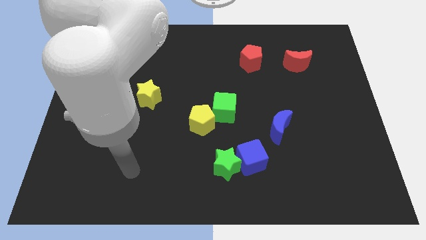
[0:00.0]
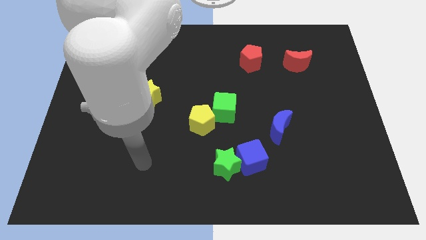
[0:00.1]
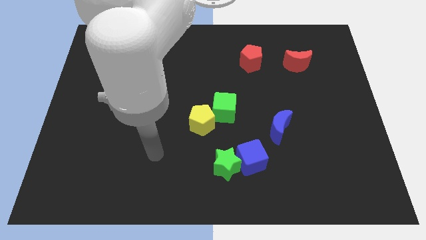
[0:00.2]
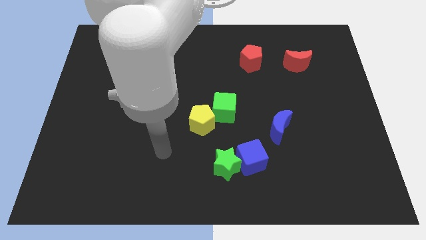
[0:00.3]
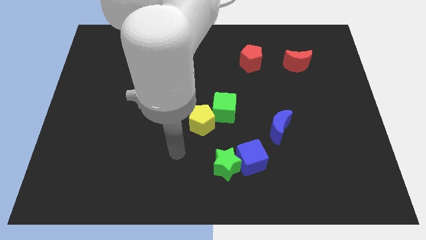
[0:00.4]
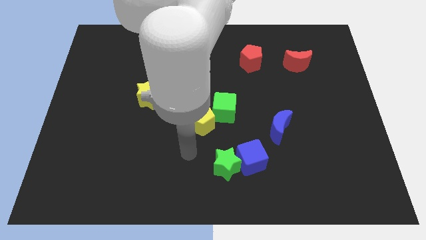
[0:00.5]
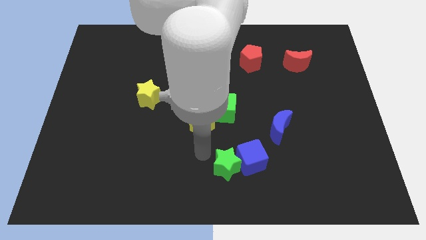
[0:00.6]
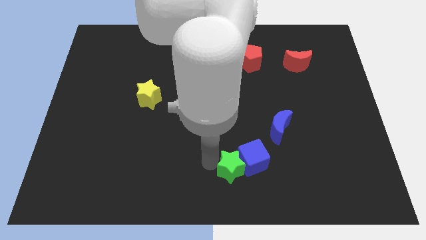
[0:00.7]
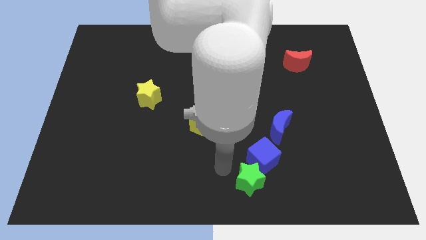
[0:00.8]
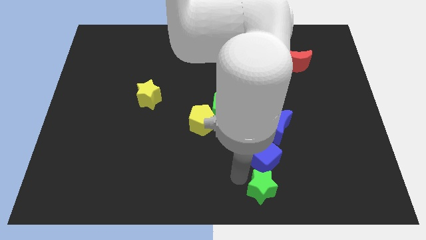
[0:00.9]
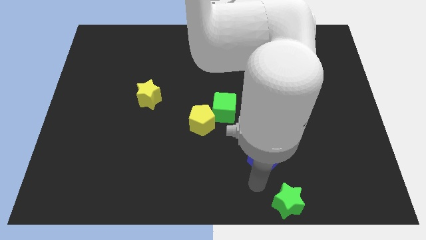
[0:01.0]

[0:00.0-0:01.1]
separate the blue cube from the green star

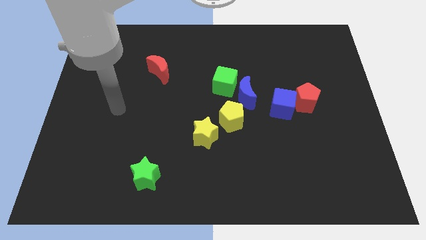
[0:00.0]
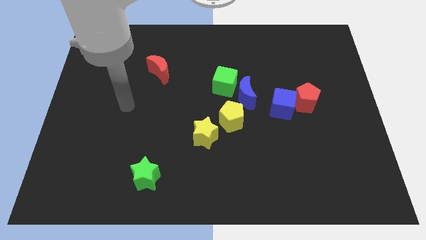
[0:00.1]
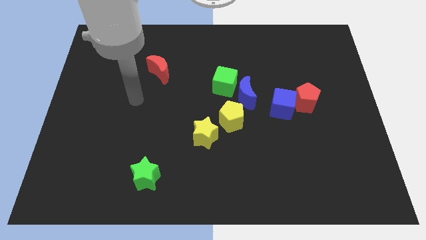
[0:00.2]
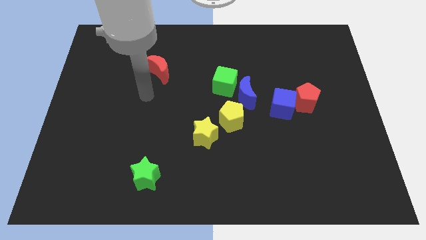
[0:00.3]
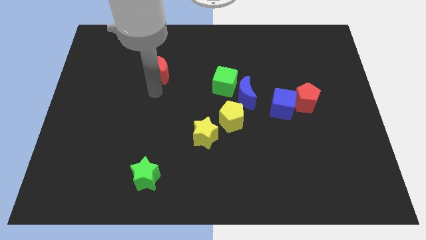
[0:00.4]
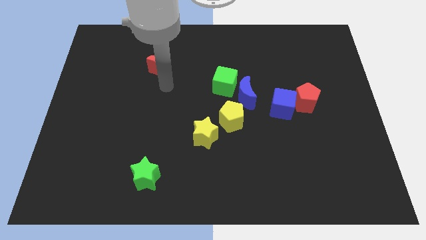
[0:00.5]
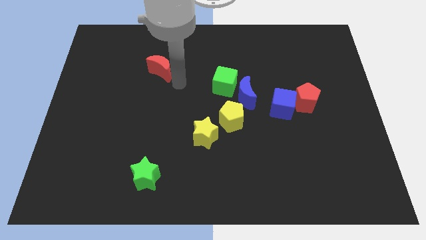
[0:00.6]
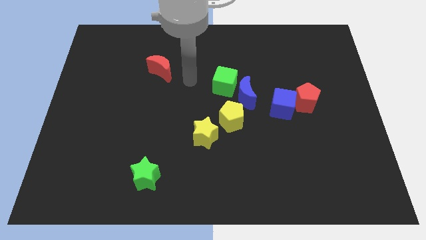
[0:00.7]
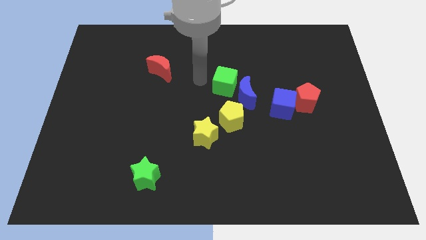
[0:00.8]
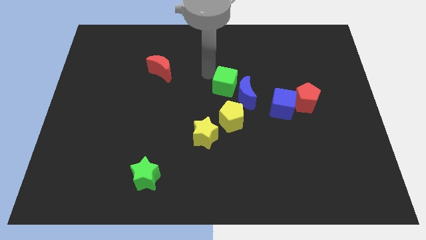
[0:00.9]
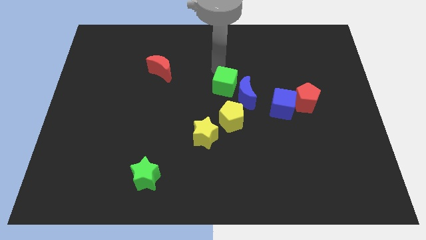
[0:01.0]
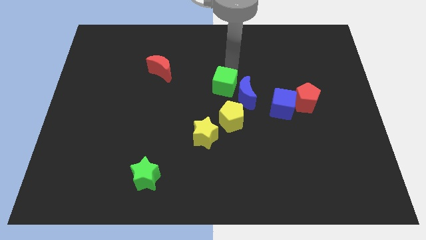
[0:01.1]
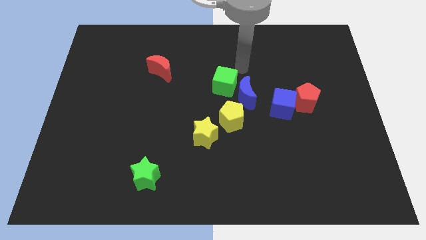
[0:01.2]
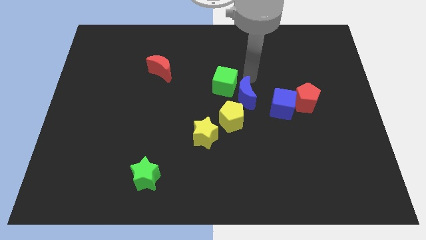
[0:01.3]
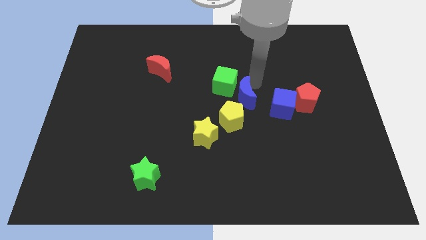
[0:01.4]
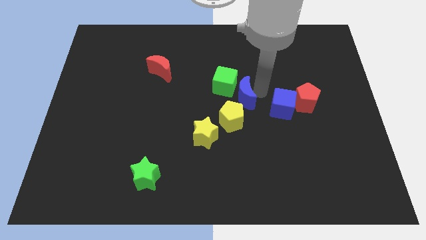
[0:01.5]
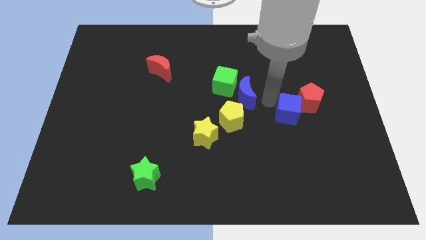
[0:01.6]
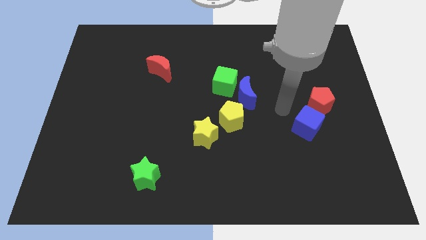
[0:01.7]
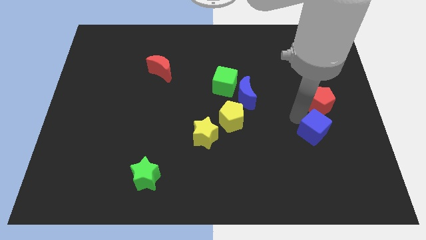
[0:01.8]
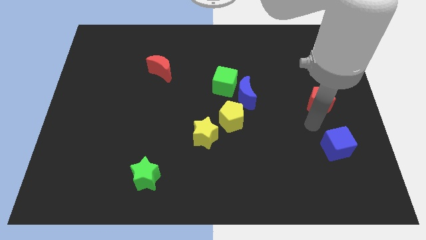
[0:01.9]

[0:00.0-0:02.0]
separate the red pentagon from the blue cube

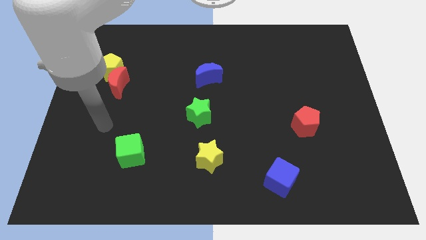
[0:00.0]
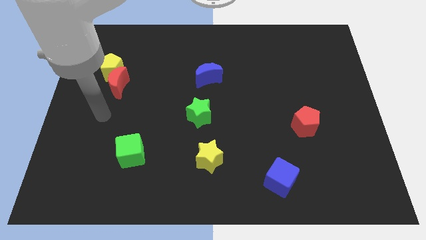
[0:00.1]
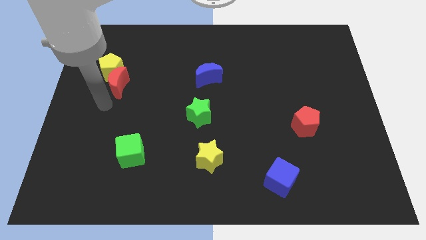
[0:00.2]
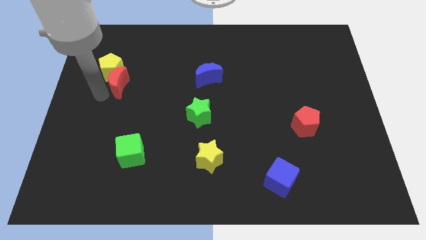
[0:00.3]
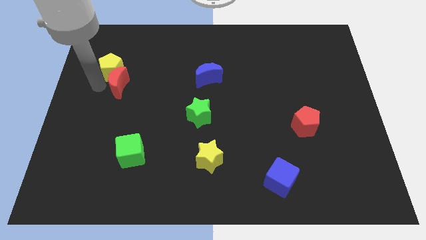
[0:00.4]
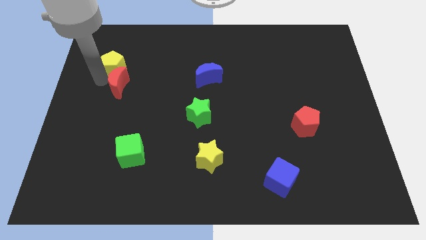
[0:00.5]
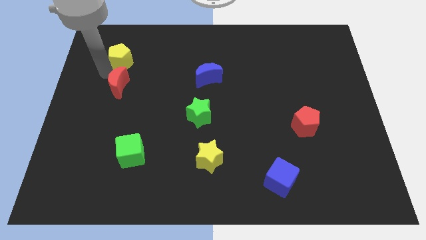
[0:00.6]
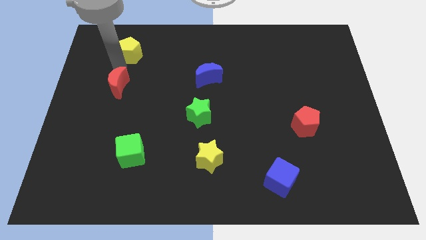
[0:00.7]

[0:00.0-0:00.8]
move the red moon away from the yellow pentagon

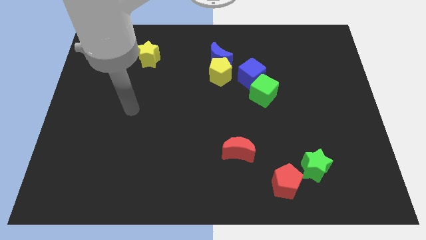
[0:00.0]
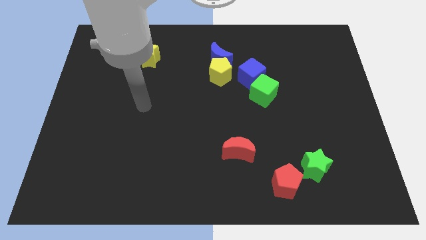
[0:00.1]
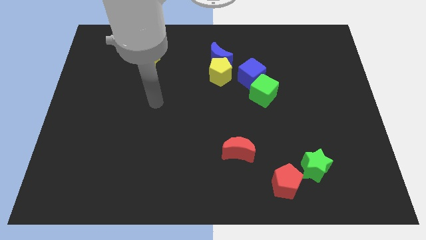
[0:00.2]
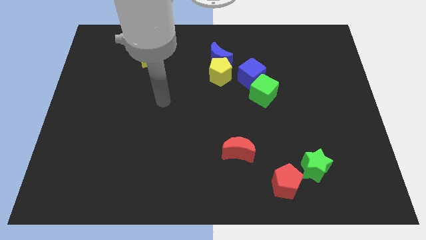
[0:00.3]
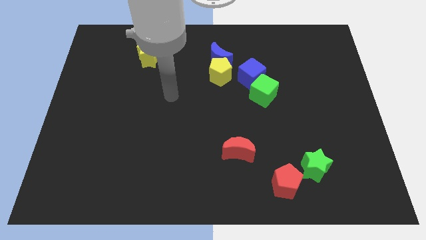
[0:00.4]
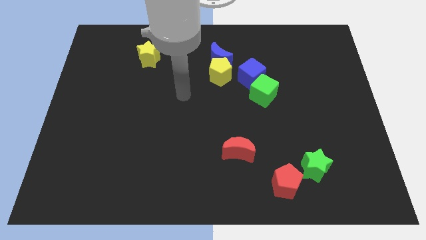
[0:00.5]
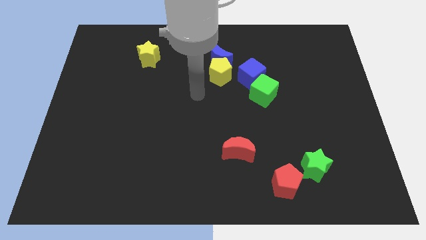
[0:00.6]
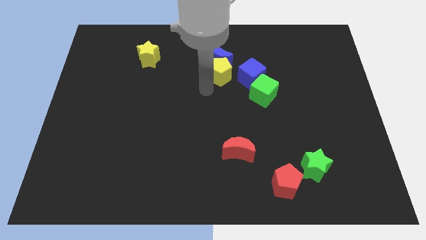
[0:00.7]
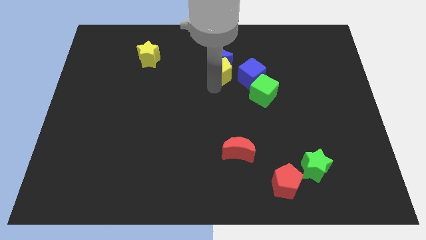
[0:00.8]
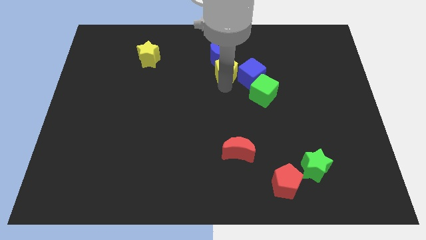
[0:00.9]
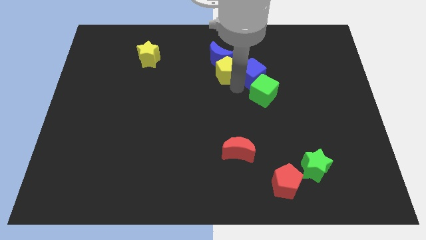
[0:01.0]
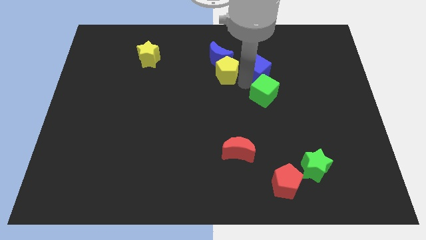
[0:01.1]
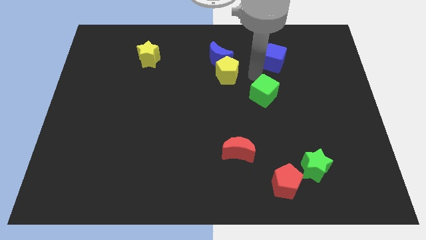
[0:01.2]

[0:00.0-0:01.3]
move the green cube away from the blue cube

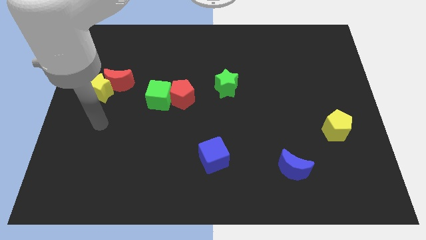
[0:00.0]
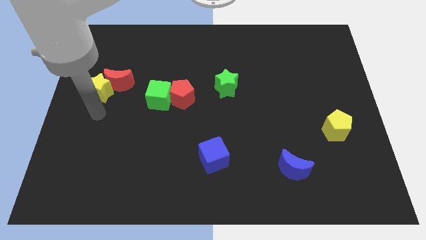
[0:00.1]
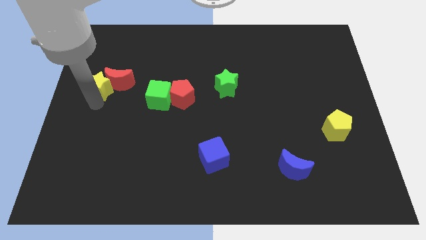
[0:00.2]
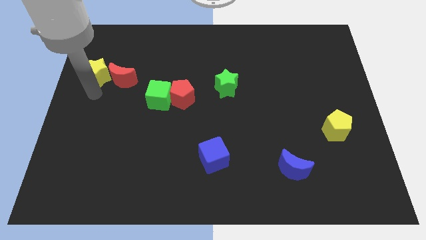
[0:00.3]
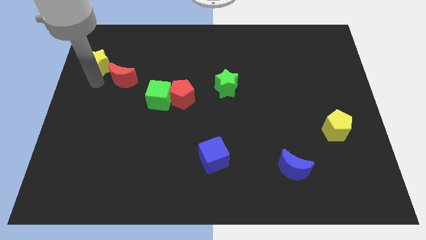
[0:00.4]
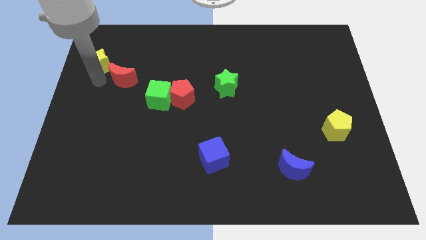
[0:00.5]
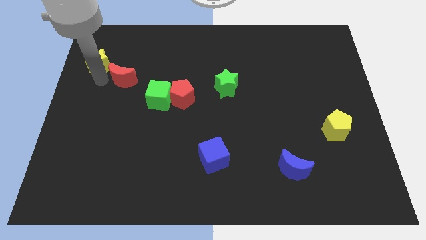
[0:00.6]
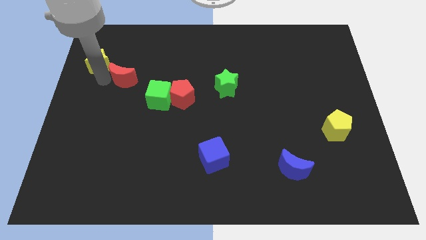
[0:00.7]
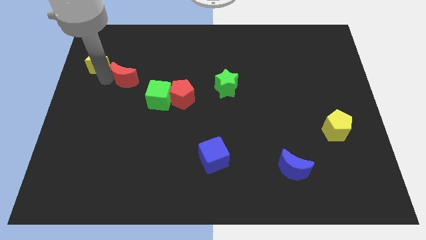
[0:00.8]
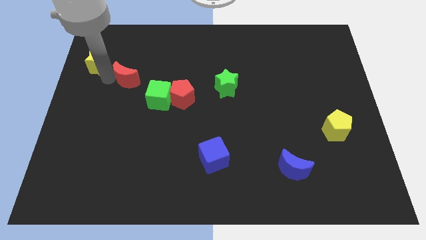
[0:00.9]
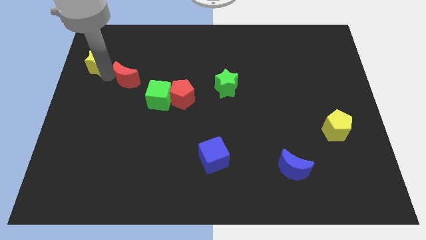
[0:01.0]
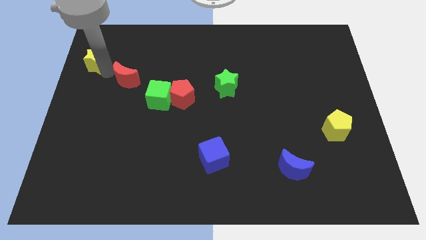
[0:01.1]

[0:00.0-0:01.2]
separate the red moon from the yellow star

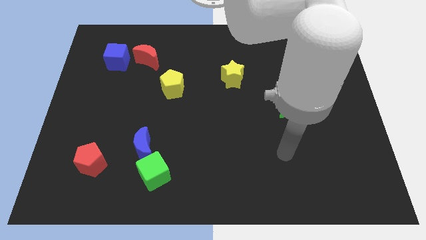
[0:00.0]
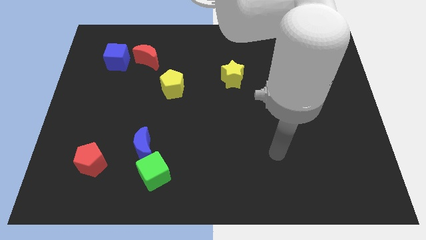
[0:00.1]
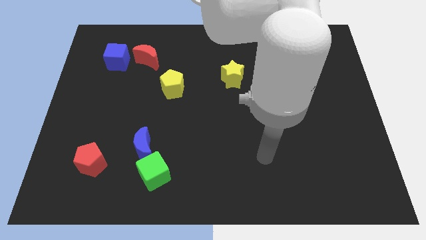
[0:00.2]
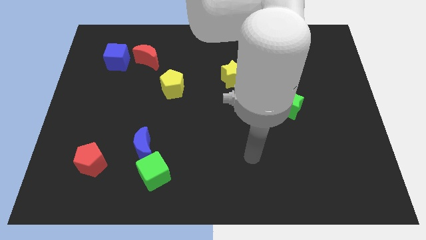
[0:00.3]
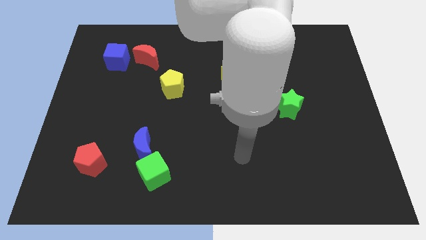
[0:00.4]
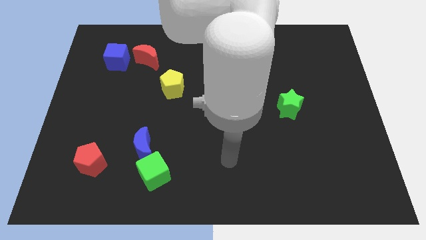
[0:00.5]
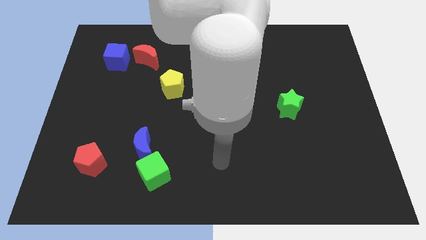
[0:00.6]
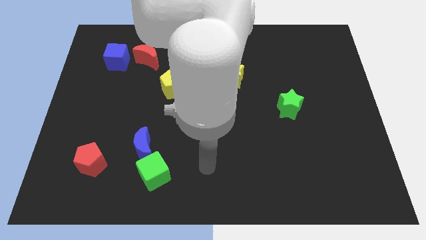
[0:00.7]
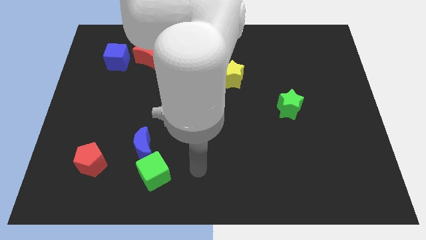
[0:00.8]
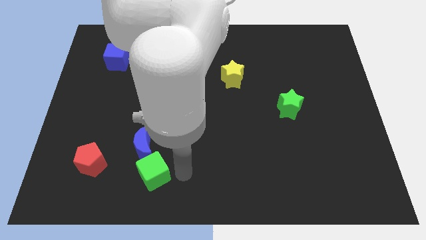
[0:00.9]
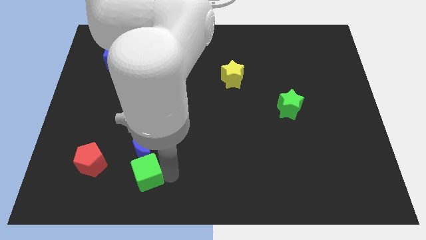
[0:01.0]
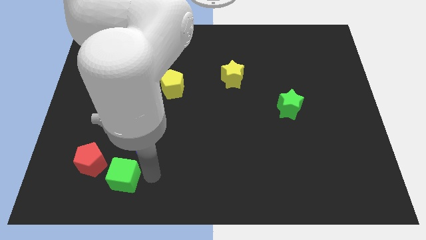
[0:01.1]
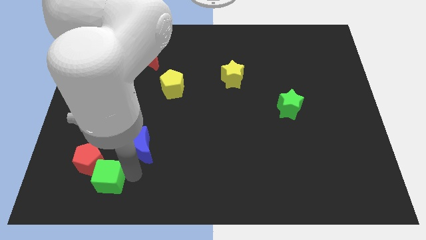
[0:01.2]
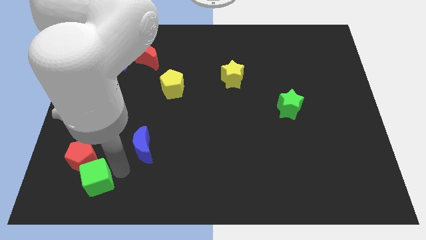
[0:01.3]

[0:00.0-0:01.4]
pull the blue moon apart from the green cube

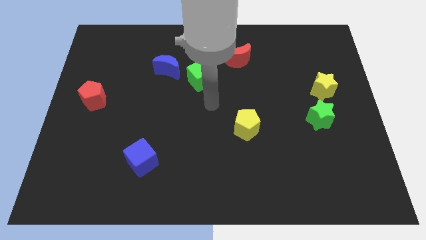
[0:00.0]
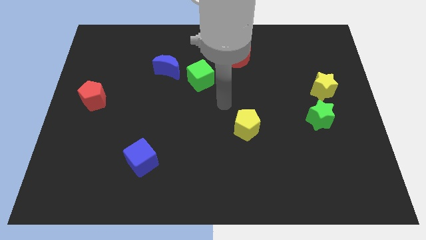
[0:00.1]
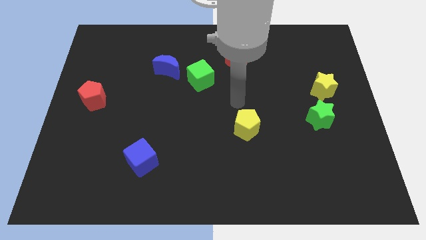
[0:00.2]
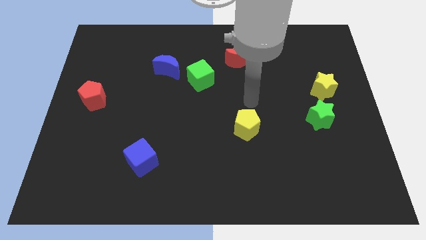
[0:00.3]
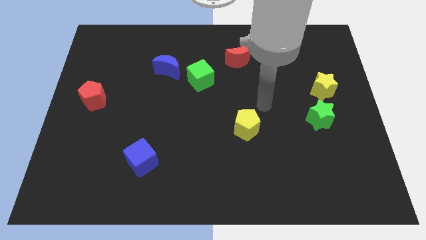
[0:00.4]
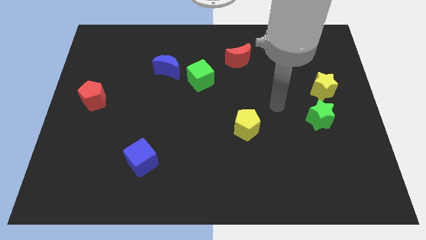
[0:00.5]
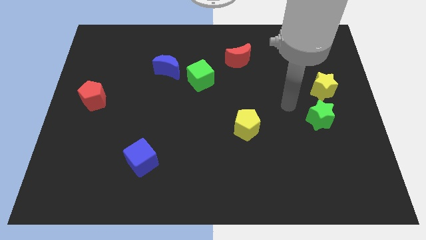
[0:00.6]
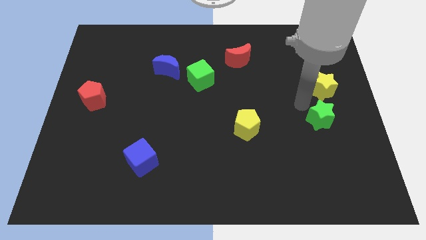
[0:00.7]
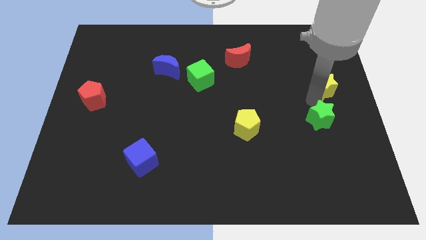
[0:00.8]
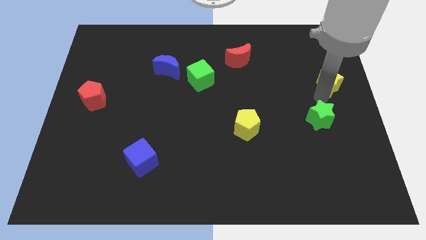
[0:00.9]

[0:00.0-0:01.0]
separate the green star from the yellow star

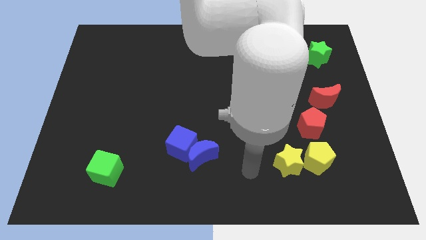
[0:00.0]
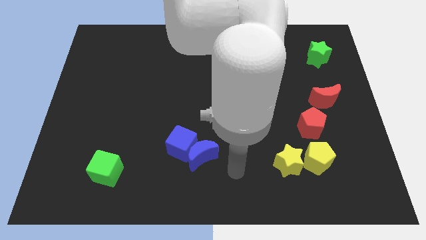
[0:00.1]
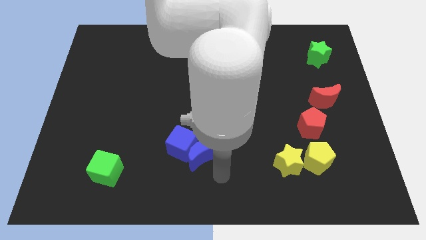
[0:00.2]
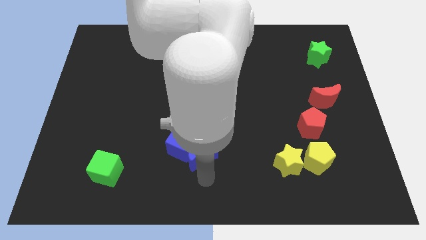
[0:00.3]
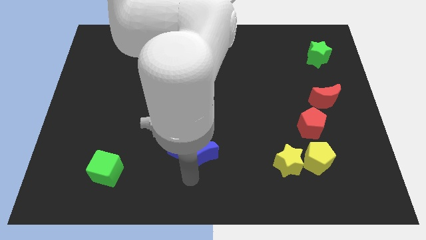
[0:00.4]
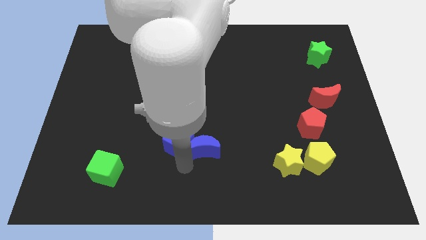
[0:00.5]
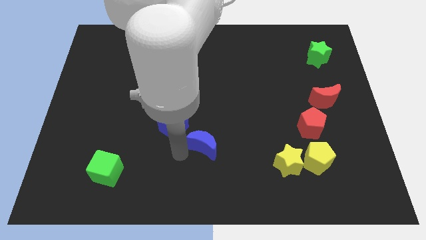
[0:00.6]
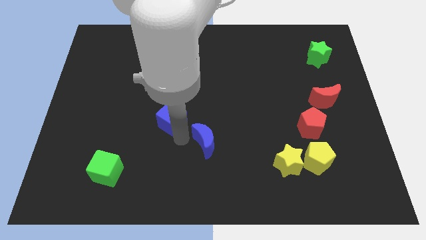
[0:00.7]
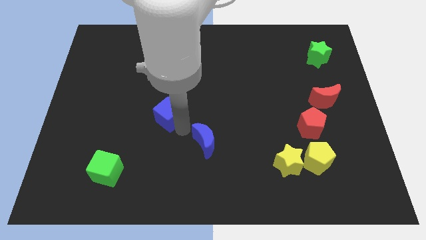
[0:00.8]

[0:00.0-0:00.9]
move the blue moon away from the blue cube
